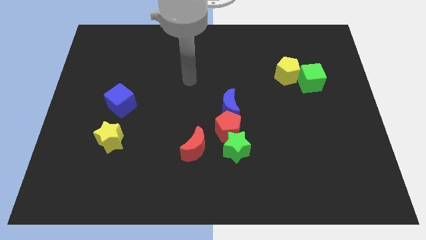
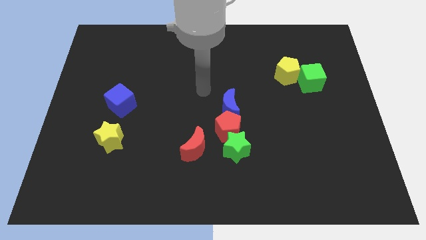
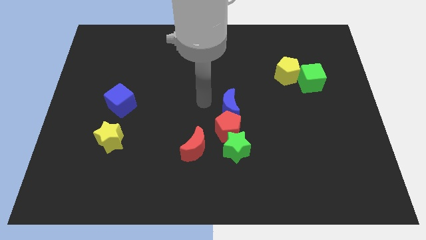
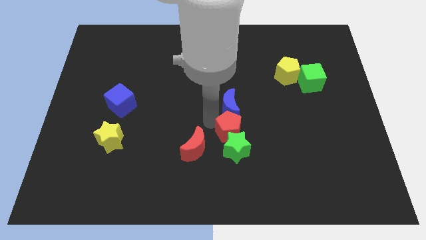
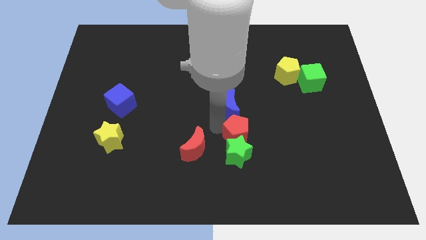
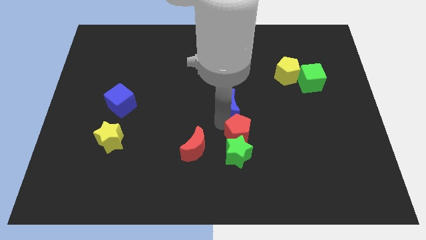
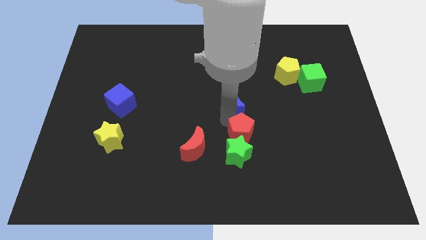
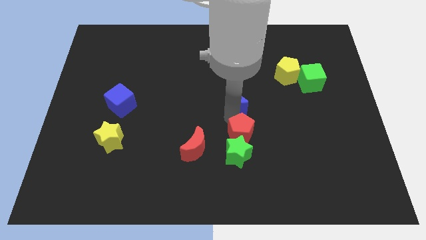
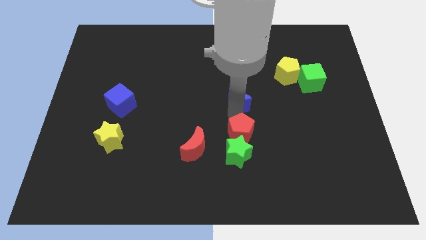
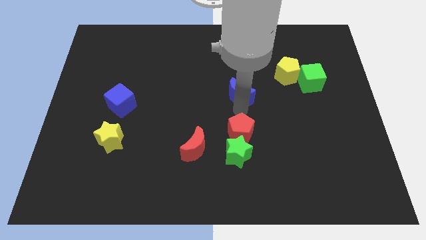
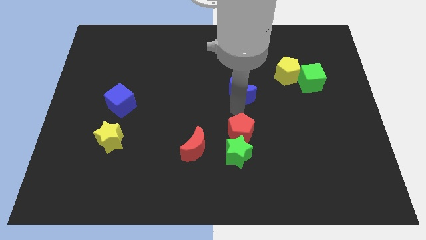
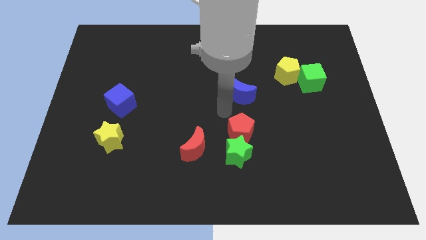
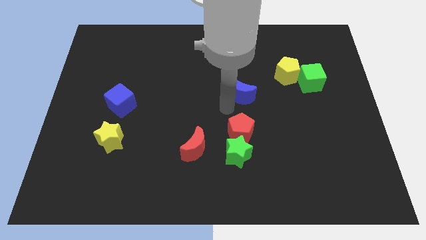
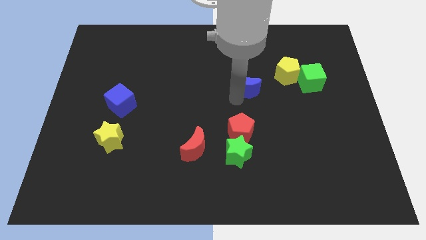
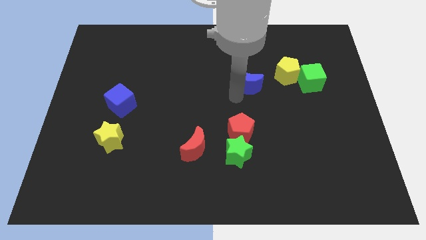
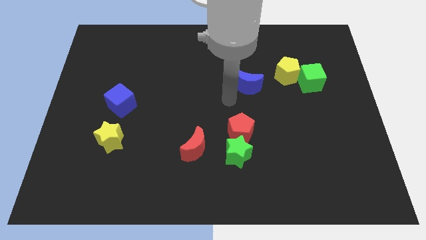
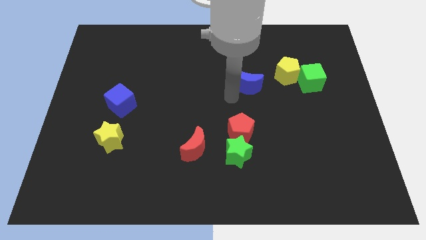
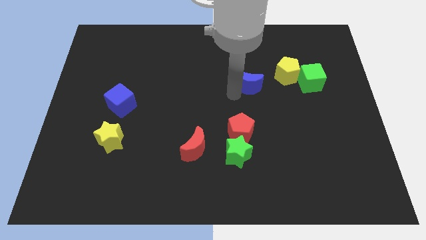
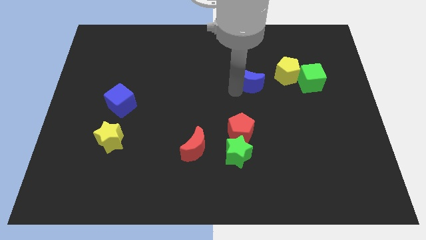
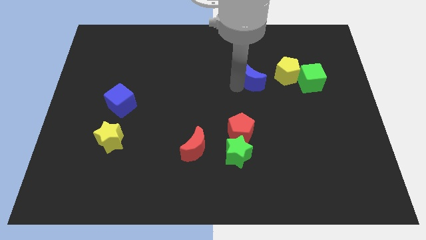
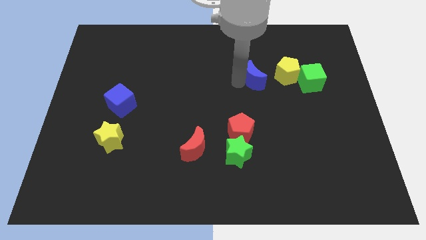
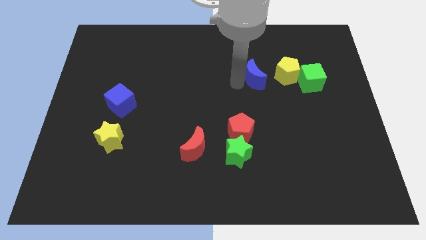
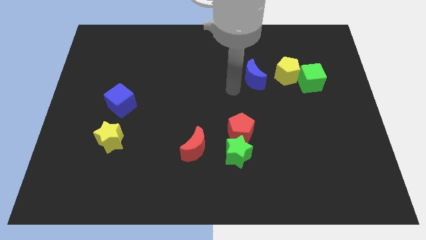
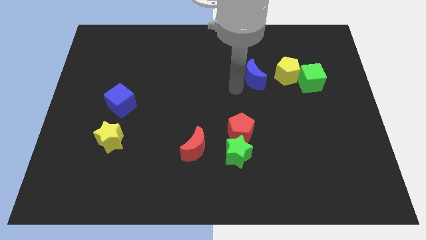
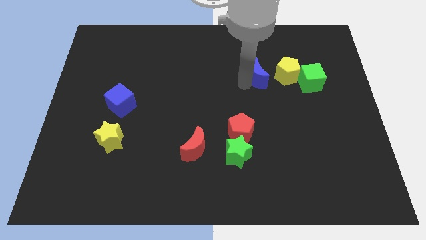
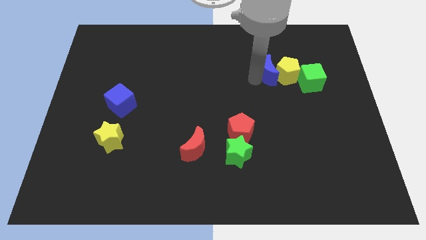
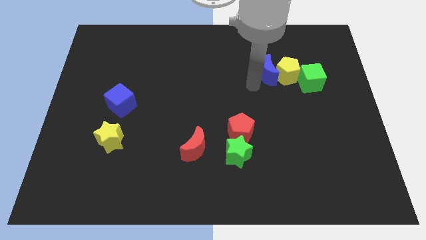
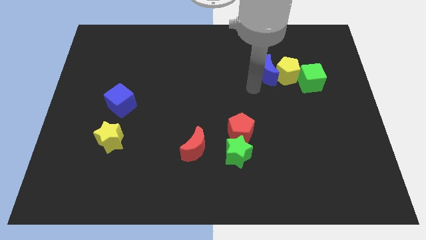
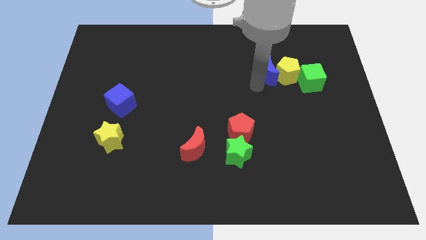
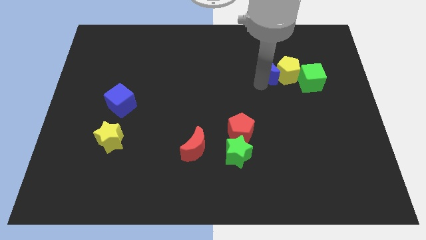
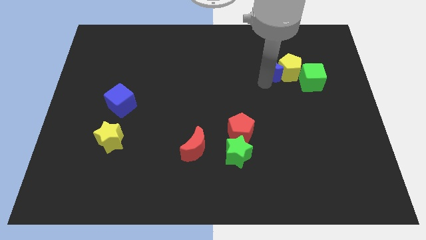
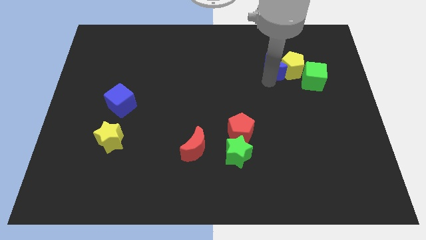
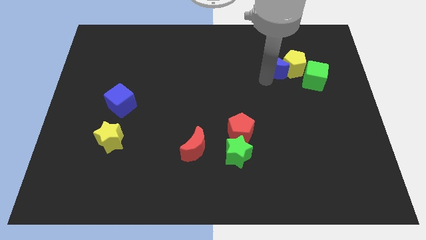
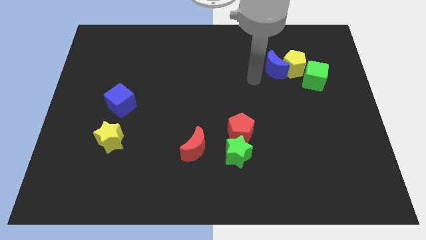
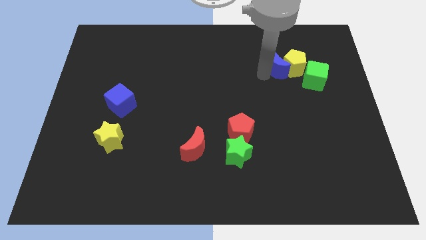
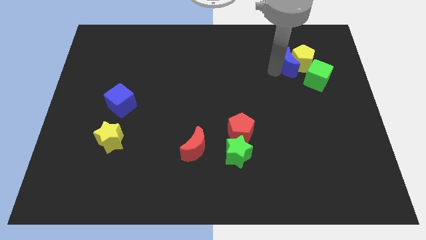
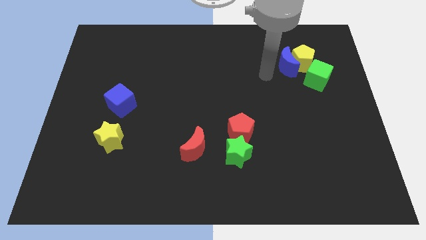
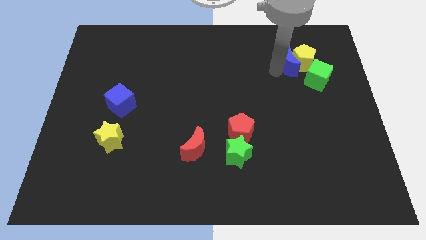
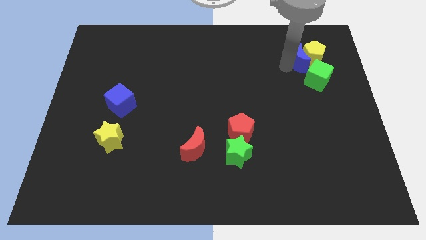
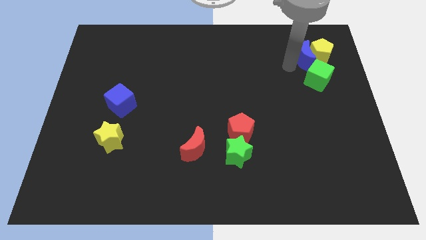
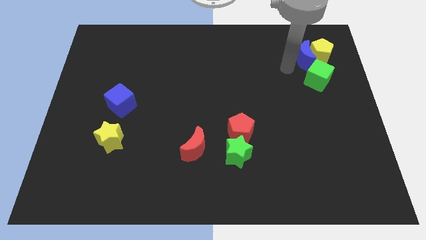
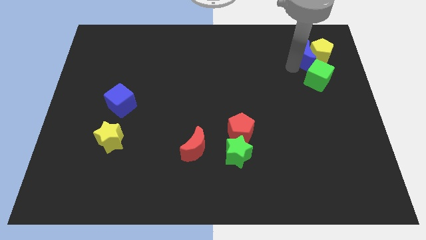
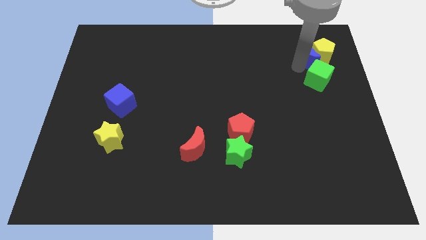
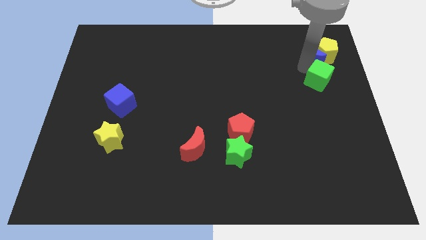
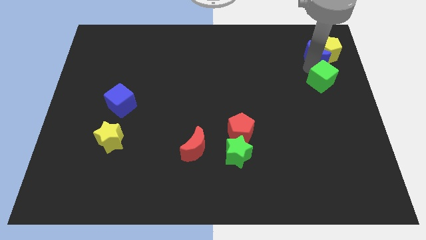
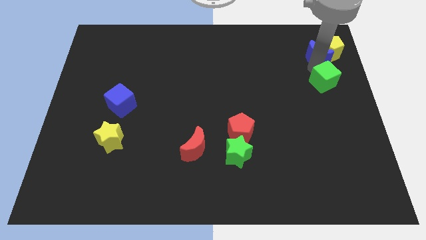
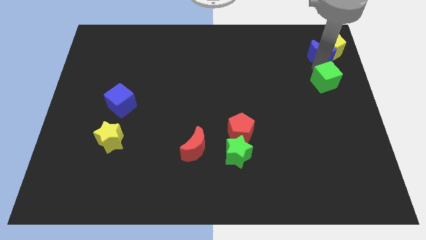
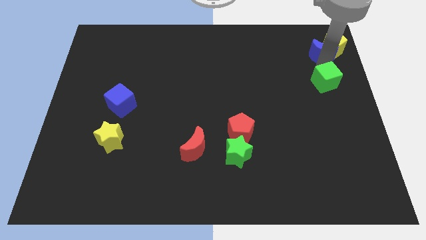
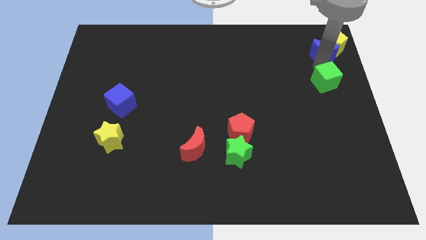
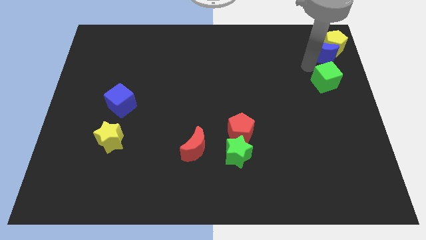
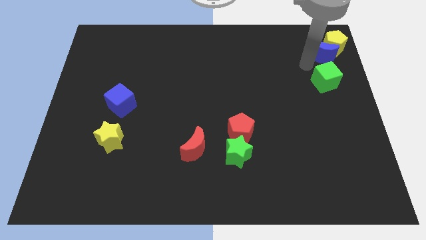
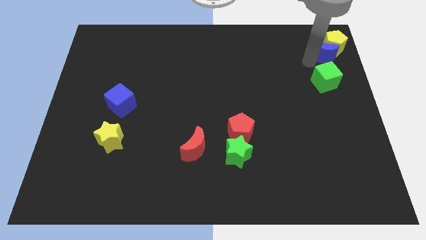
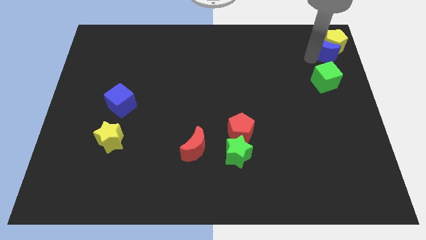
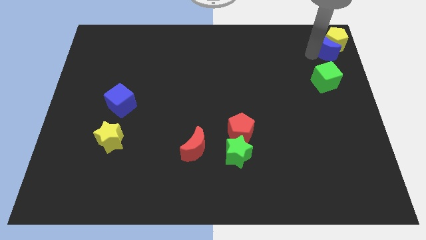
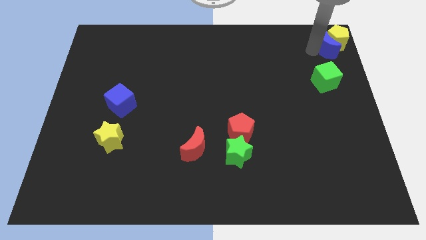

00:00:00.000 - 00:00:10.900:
slide the blue moon to the top right

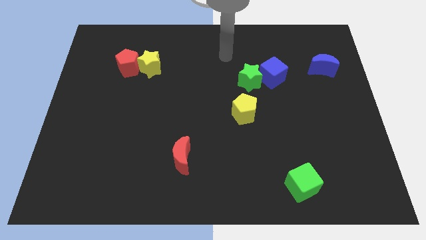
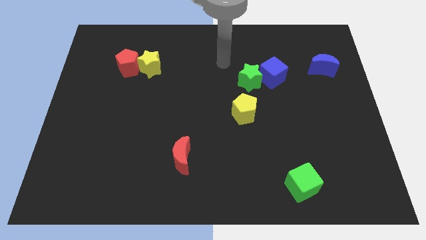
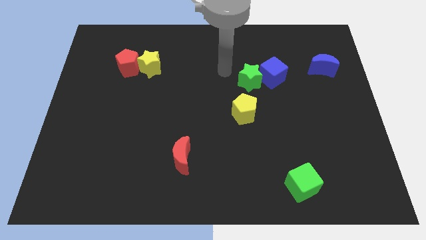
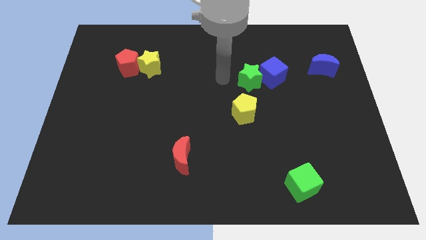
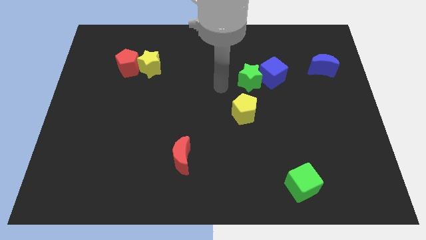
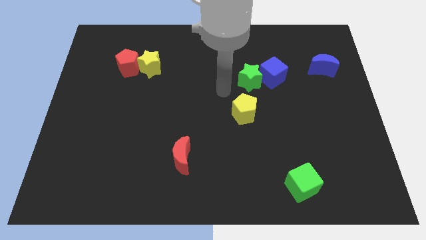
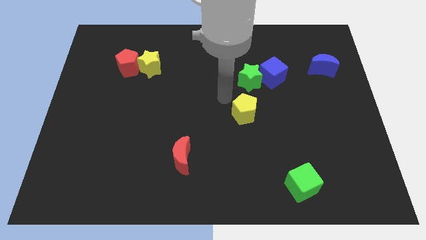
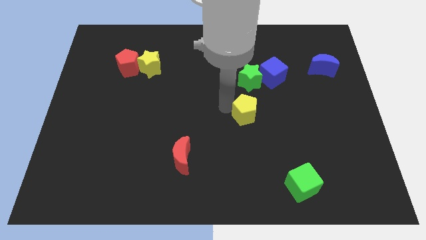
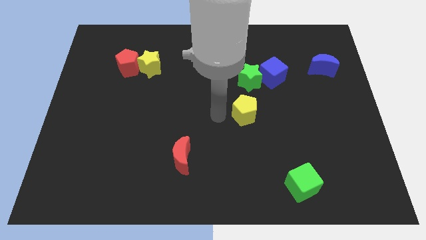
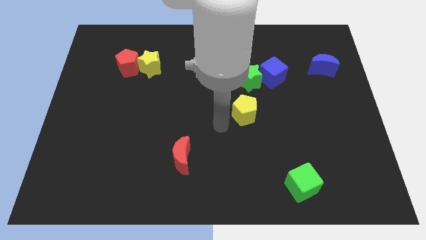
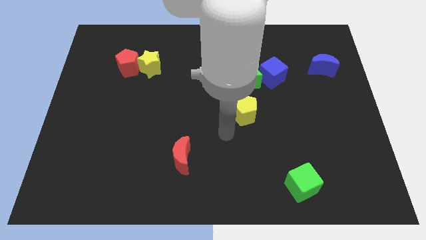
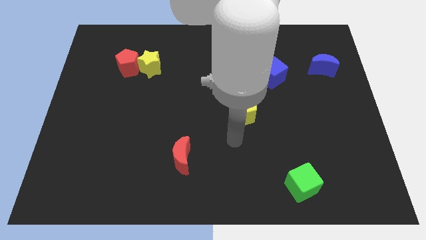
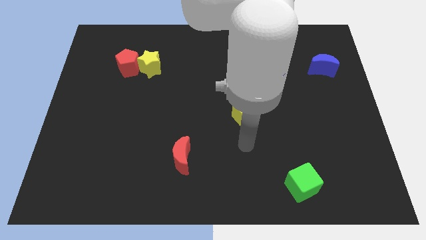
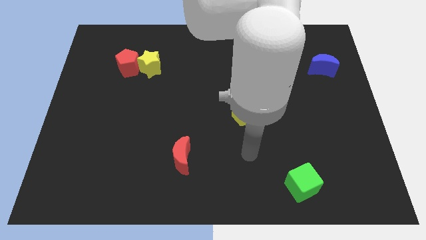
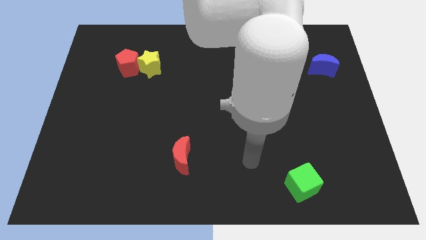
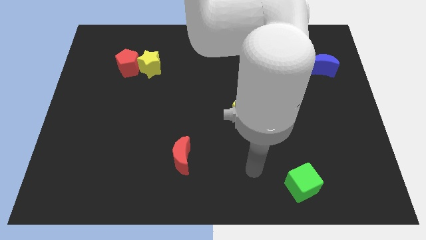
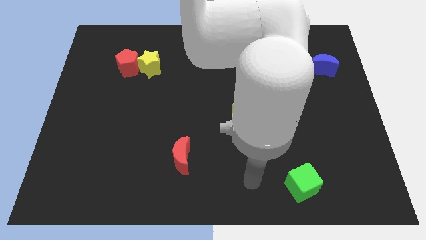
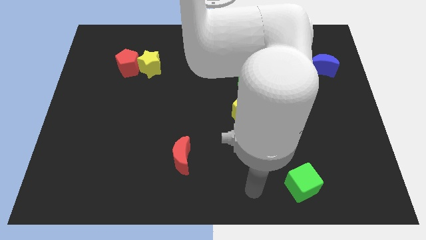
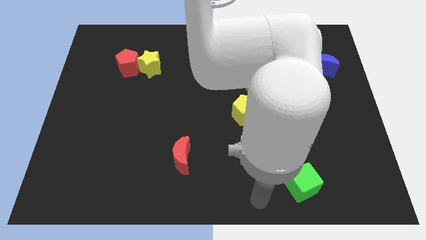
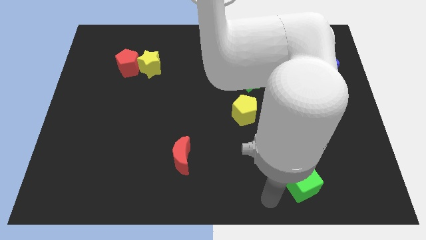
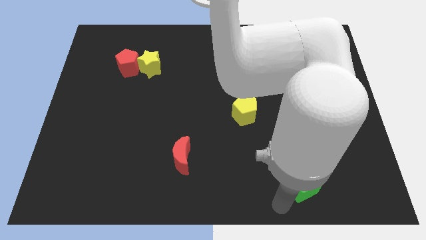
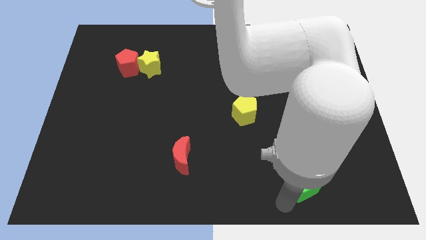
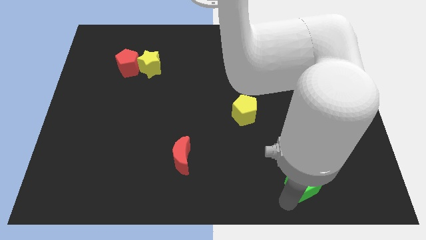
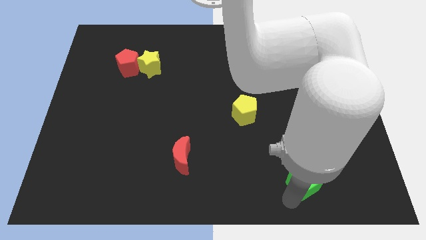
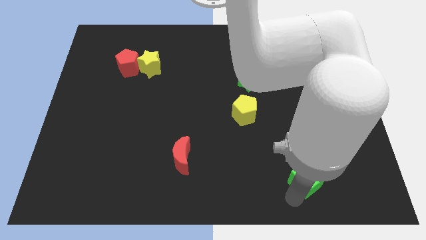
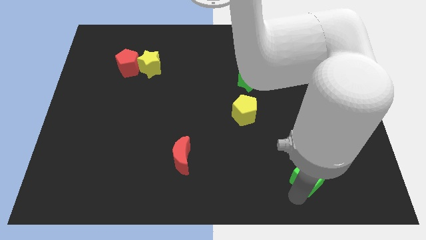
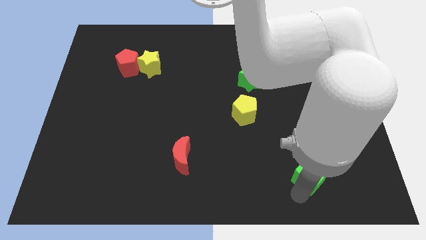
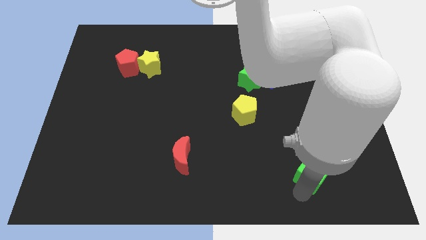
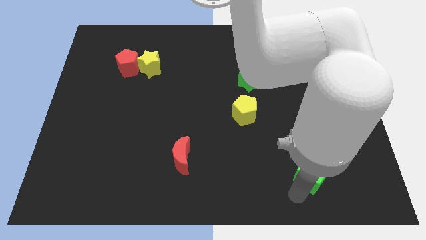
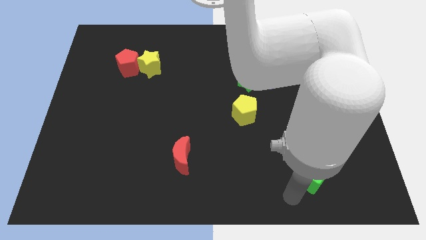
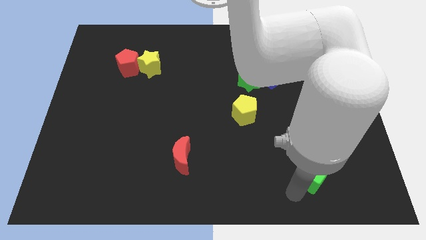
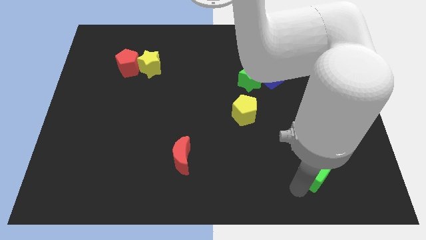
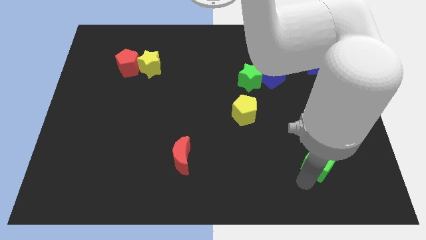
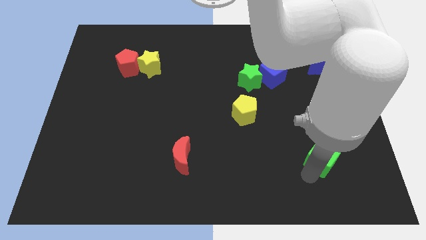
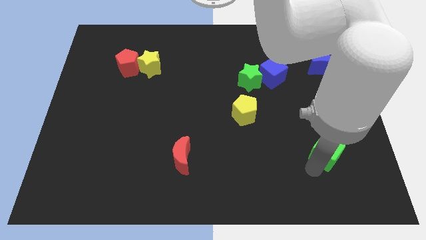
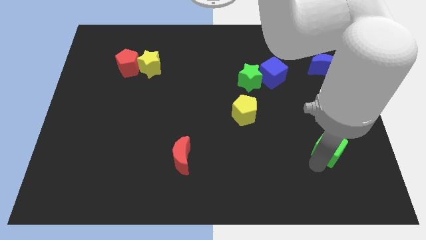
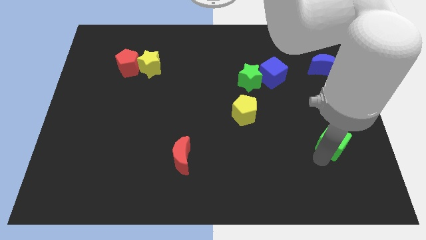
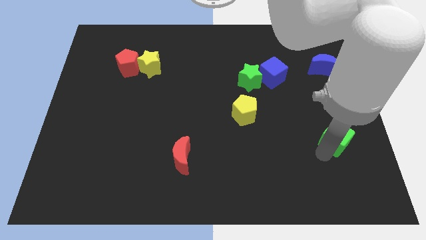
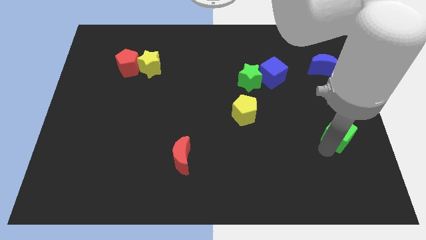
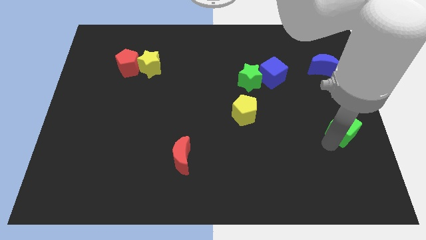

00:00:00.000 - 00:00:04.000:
slide the green cube to the center right
